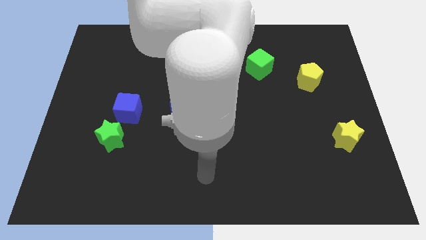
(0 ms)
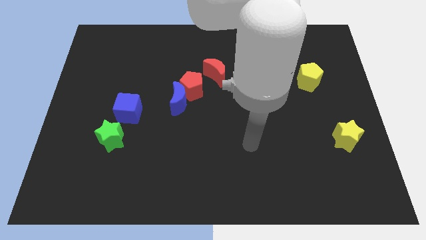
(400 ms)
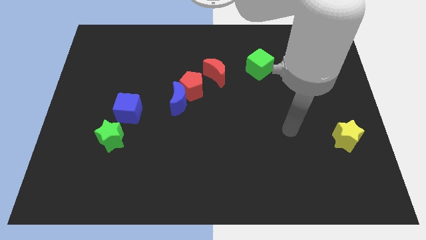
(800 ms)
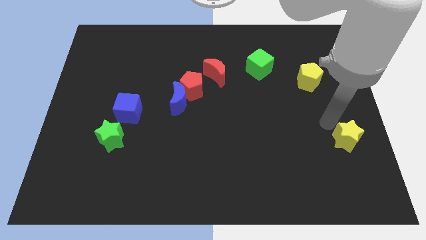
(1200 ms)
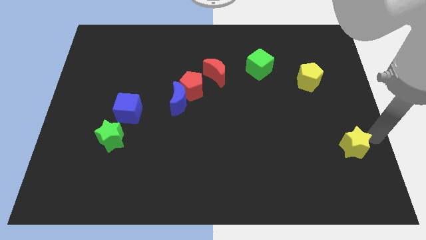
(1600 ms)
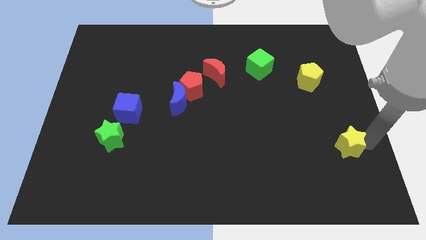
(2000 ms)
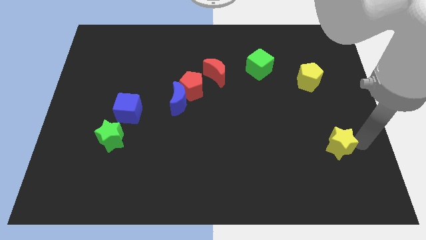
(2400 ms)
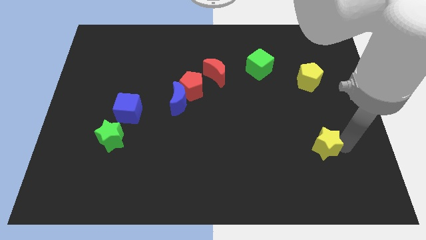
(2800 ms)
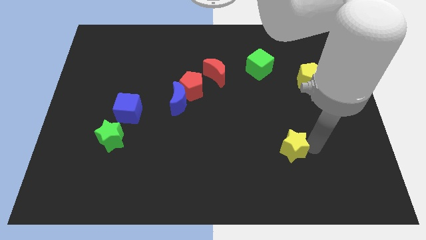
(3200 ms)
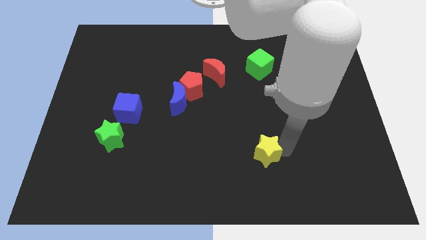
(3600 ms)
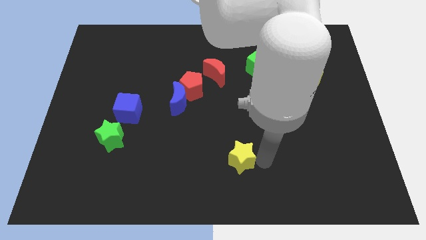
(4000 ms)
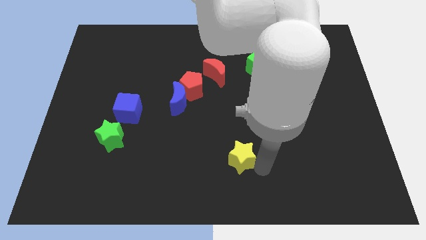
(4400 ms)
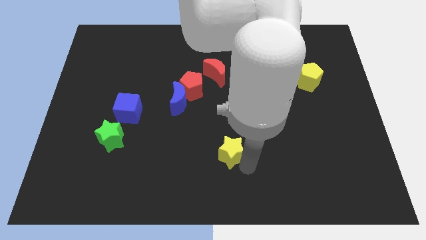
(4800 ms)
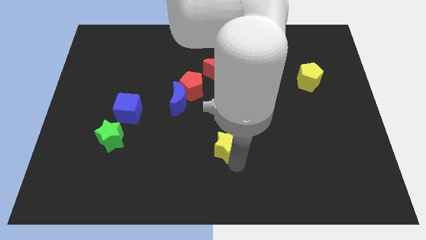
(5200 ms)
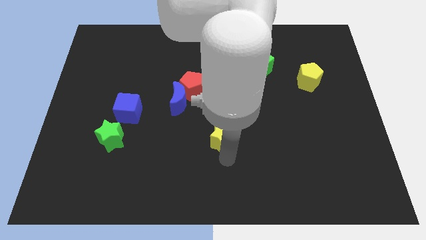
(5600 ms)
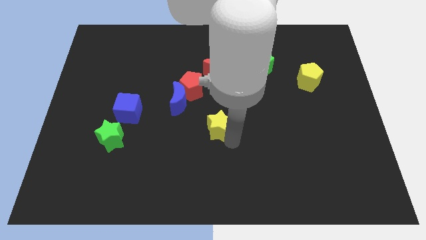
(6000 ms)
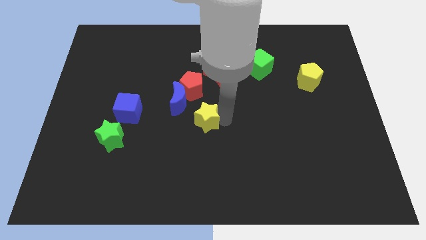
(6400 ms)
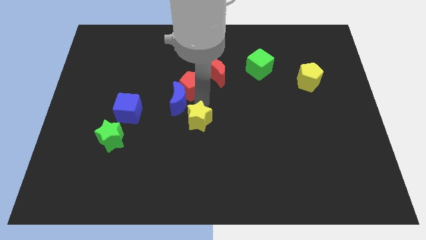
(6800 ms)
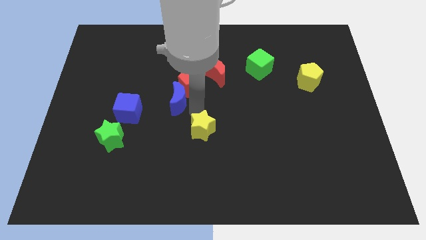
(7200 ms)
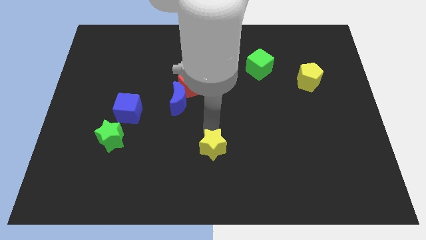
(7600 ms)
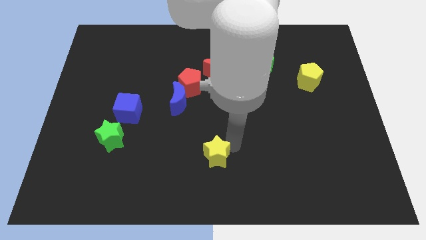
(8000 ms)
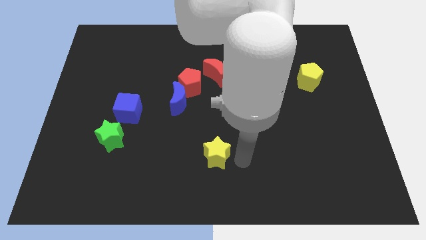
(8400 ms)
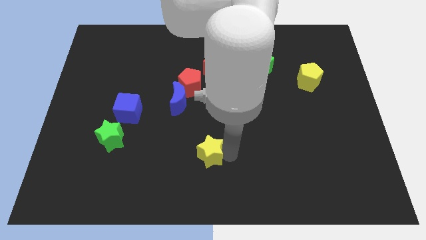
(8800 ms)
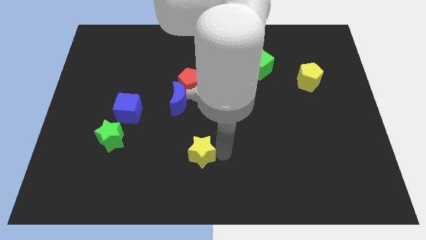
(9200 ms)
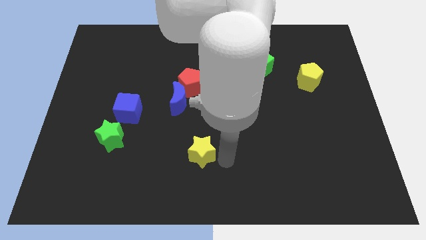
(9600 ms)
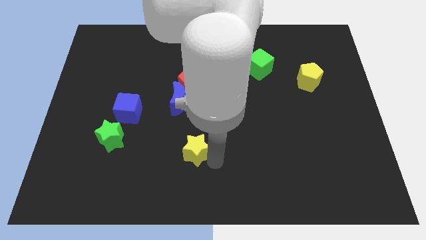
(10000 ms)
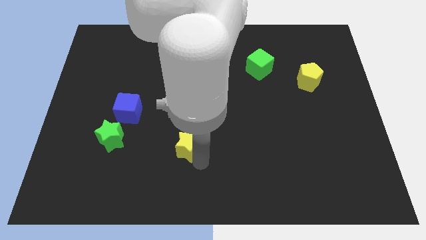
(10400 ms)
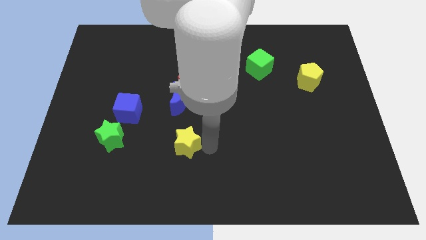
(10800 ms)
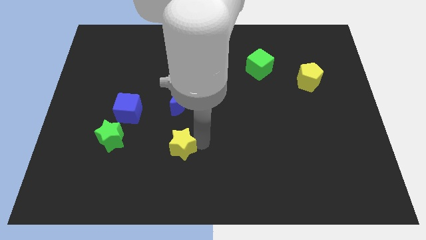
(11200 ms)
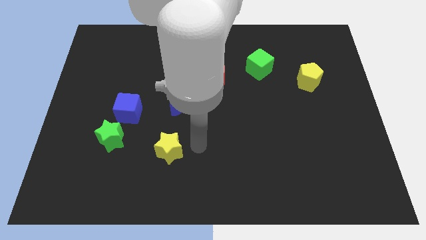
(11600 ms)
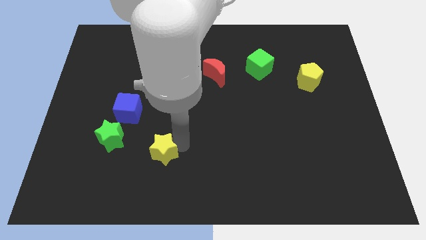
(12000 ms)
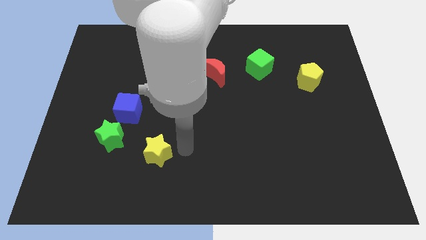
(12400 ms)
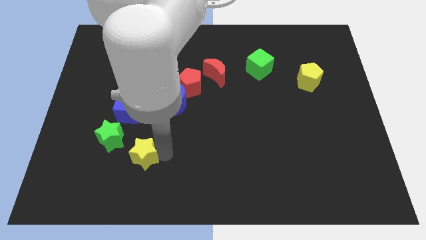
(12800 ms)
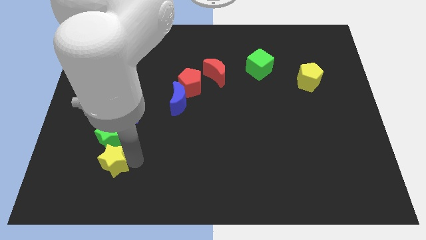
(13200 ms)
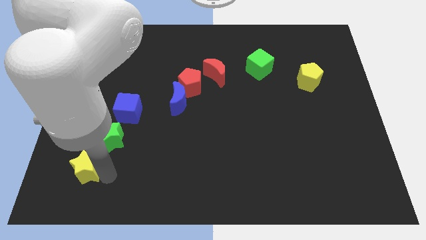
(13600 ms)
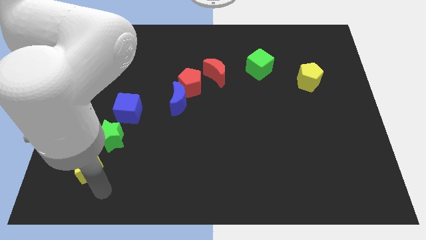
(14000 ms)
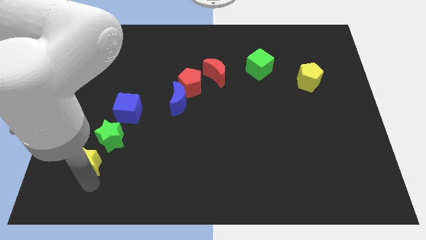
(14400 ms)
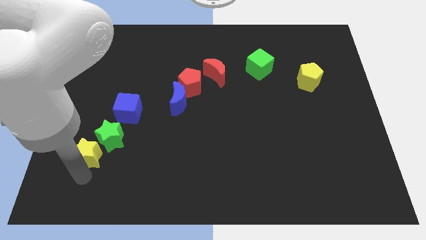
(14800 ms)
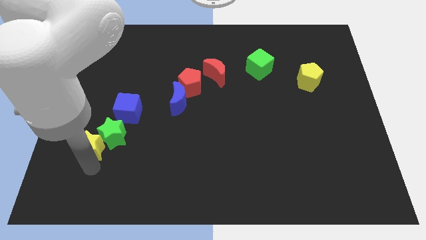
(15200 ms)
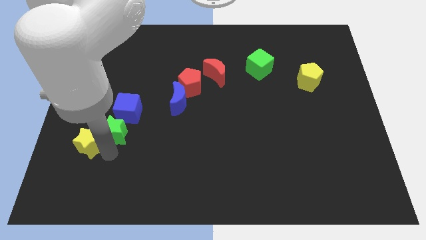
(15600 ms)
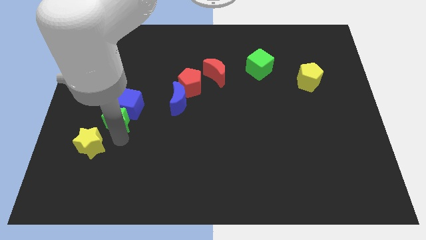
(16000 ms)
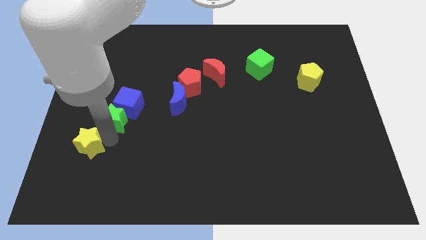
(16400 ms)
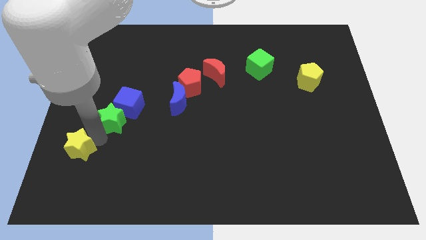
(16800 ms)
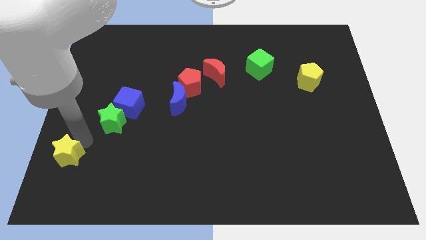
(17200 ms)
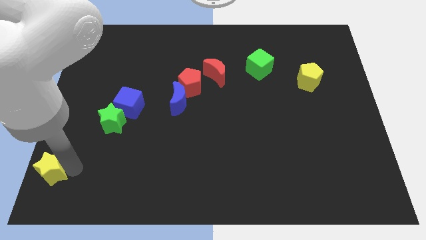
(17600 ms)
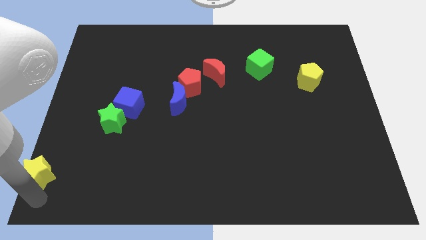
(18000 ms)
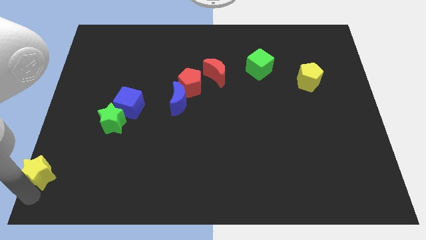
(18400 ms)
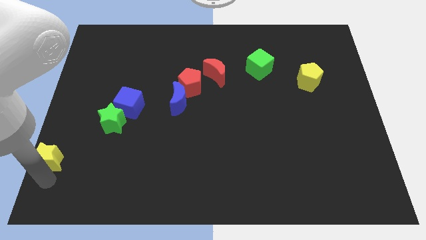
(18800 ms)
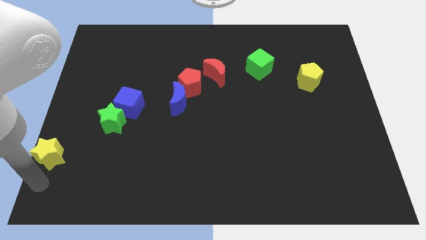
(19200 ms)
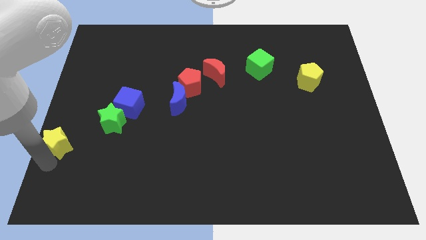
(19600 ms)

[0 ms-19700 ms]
put the yellow star to the left side

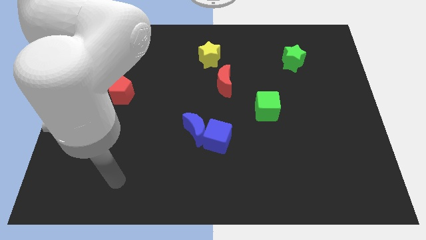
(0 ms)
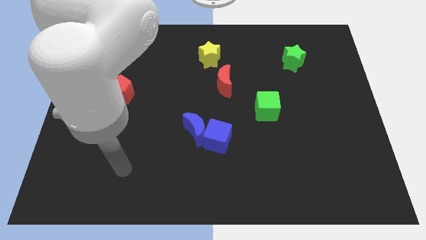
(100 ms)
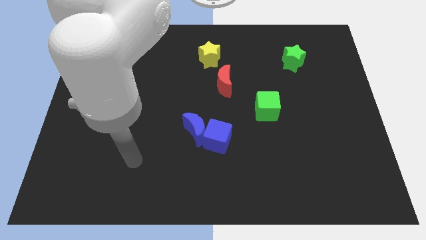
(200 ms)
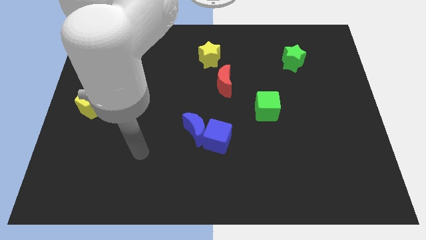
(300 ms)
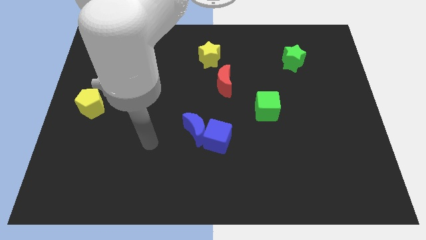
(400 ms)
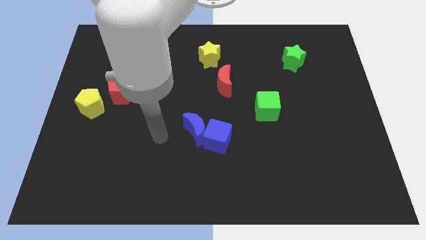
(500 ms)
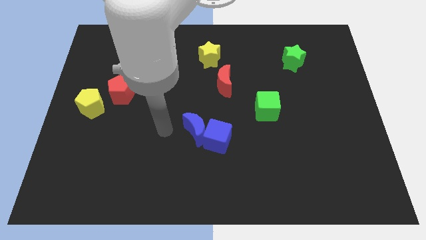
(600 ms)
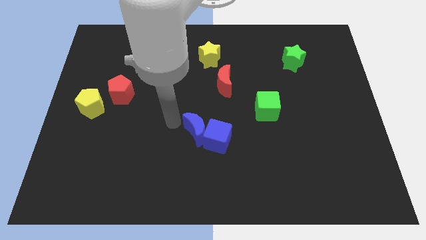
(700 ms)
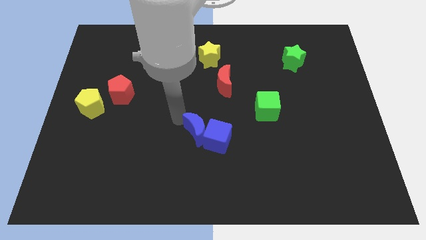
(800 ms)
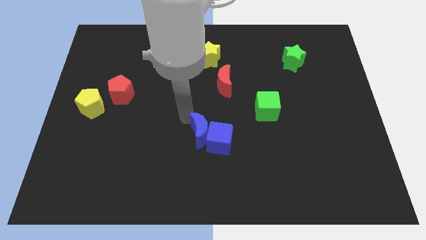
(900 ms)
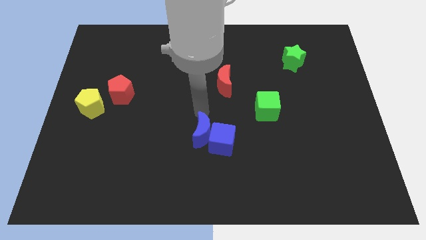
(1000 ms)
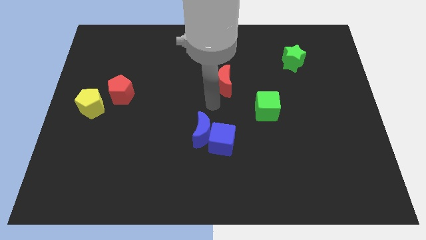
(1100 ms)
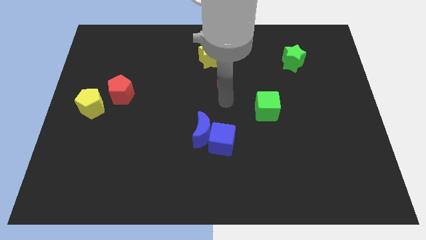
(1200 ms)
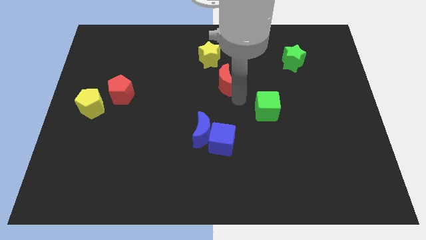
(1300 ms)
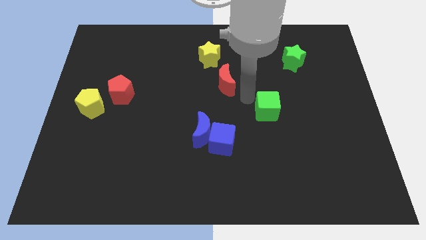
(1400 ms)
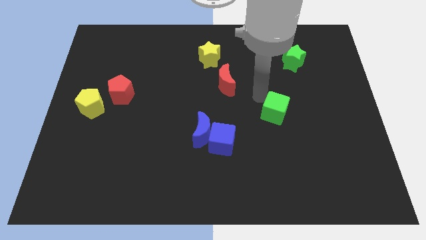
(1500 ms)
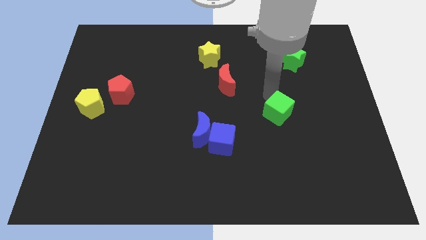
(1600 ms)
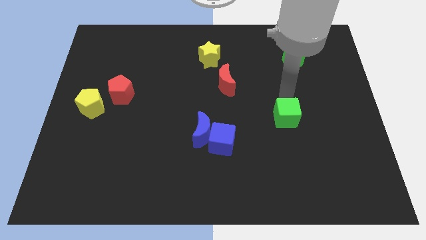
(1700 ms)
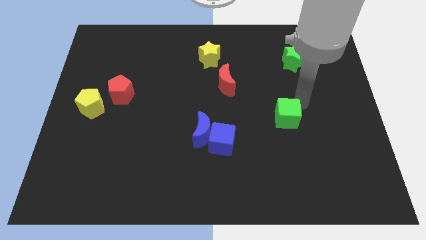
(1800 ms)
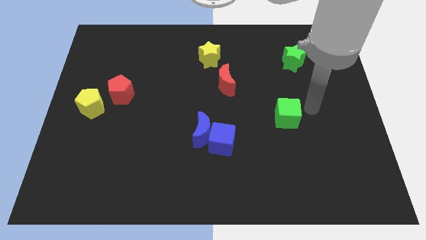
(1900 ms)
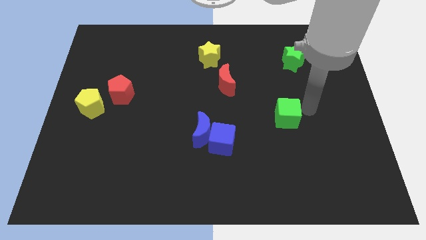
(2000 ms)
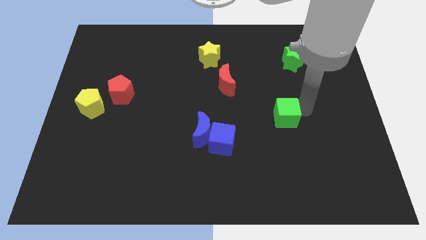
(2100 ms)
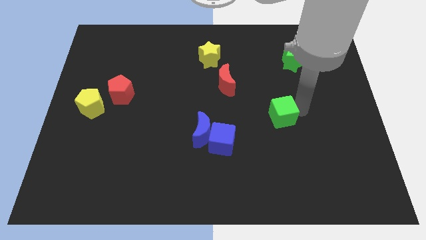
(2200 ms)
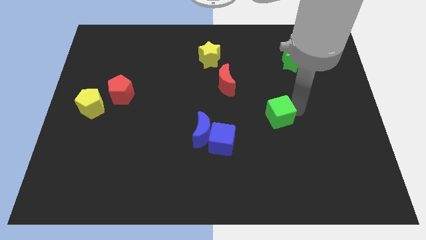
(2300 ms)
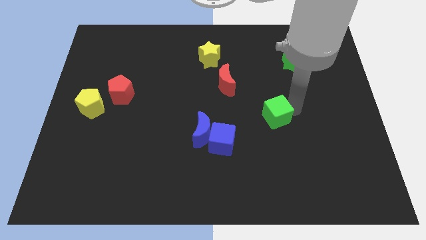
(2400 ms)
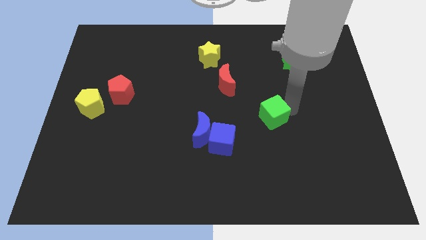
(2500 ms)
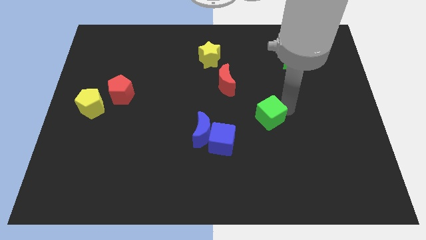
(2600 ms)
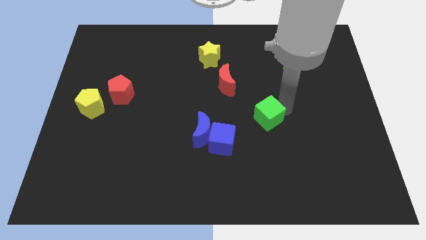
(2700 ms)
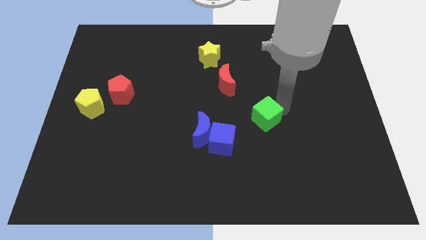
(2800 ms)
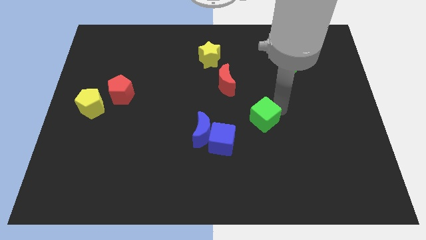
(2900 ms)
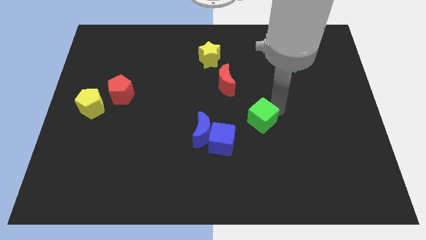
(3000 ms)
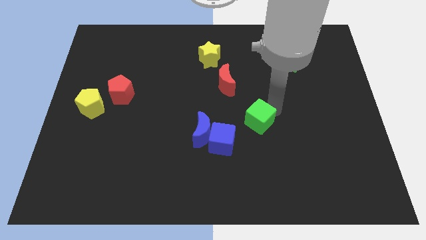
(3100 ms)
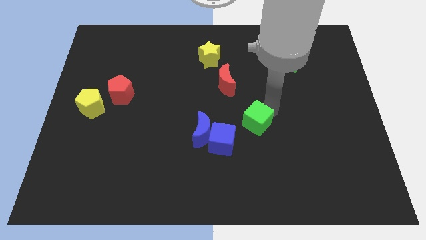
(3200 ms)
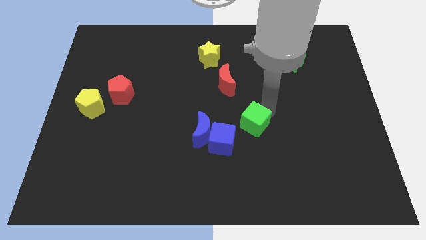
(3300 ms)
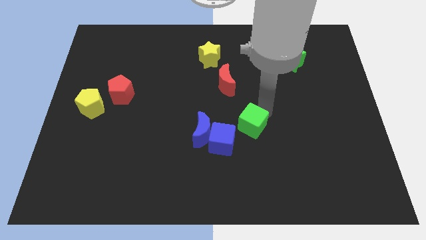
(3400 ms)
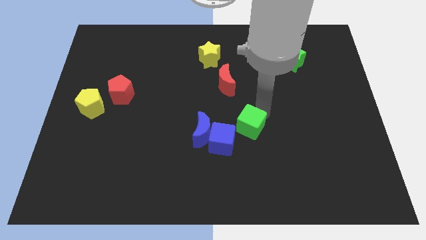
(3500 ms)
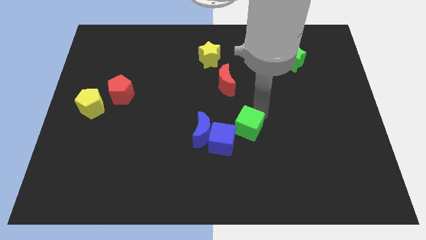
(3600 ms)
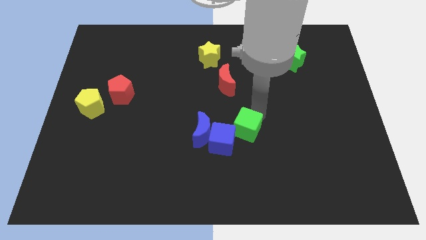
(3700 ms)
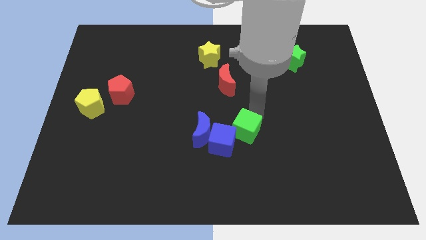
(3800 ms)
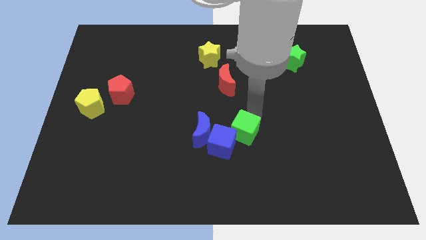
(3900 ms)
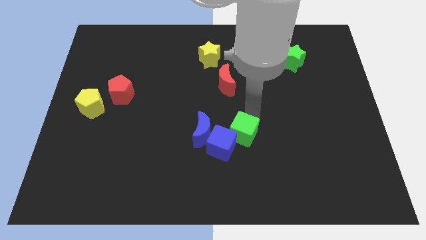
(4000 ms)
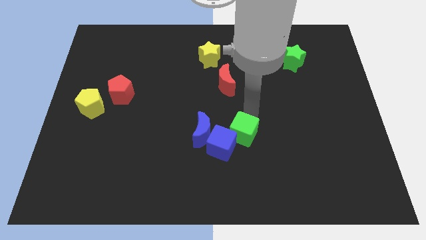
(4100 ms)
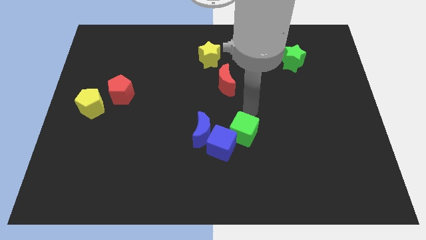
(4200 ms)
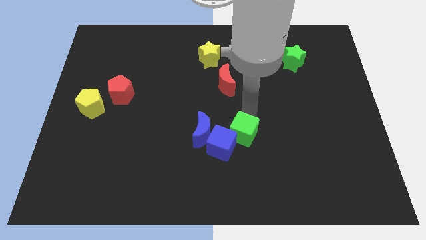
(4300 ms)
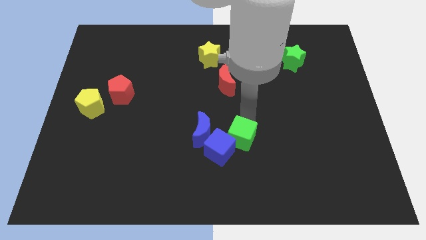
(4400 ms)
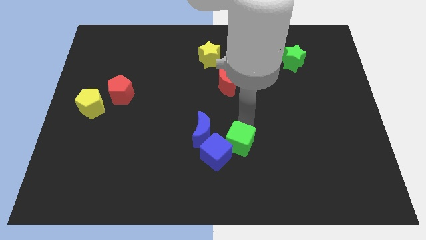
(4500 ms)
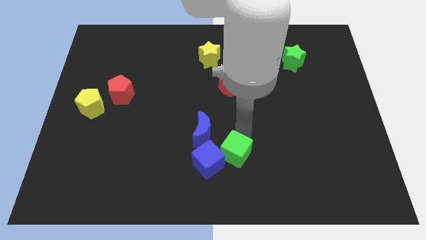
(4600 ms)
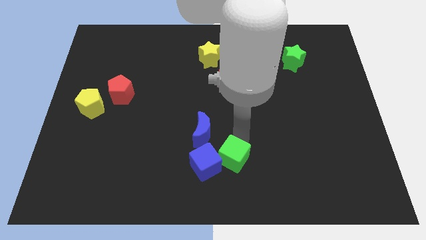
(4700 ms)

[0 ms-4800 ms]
put the green cube to the bottom side
